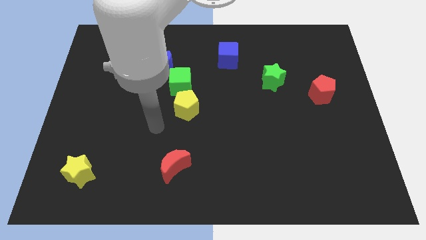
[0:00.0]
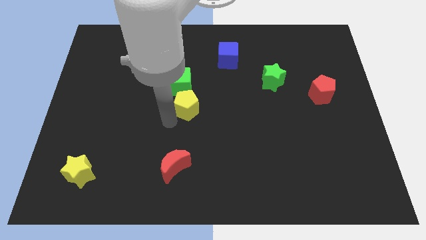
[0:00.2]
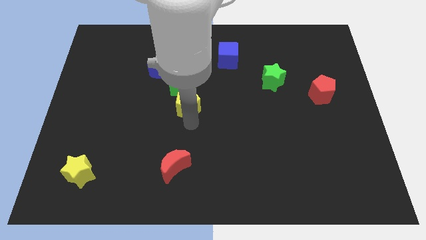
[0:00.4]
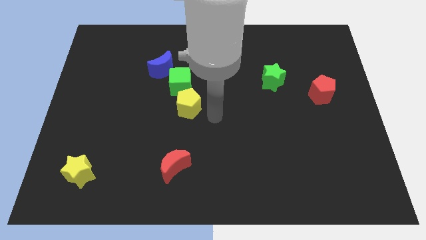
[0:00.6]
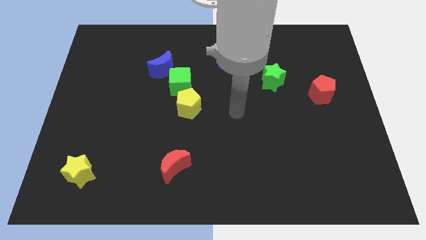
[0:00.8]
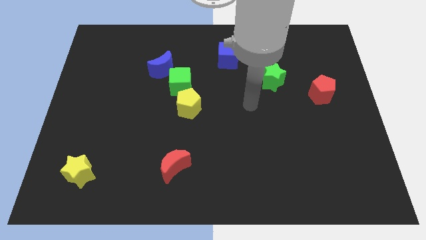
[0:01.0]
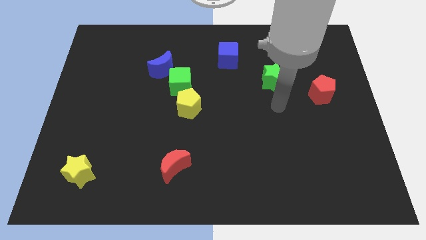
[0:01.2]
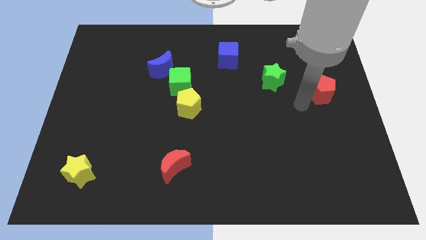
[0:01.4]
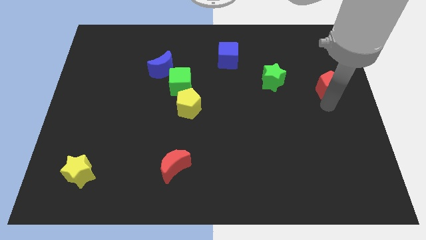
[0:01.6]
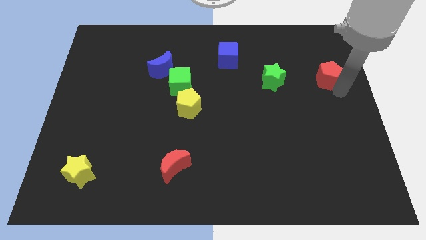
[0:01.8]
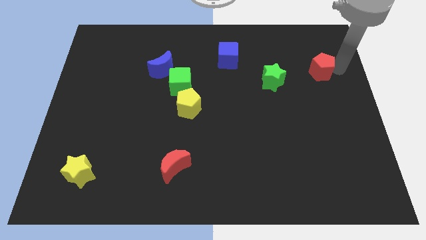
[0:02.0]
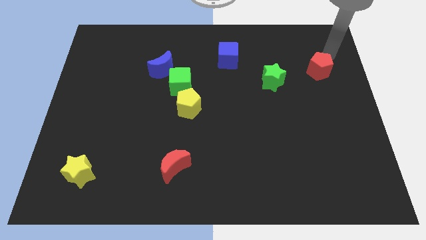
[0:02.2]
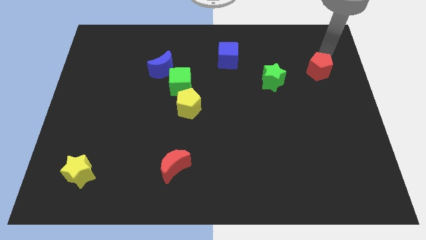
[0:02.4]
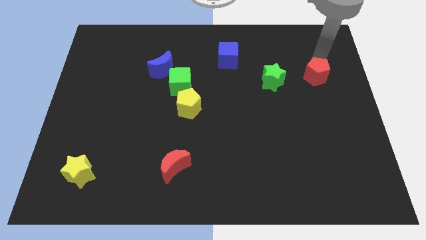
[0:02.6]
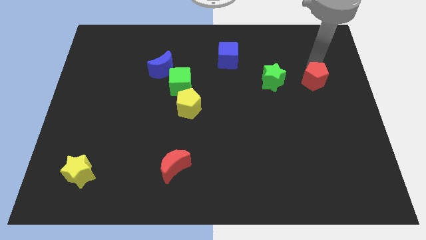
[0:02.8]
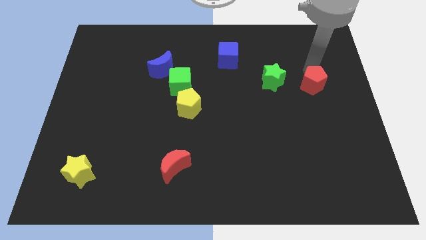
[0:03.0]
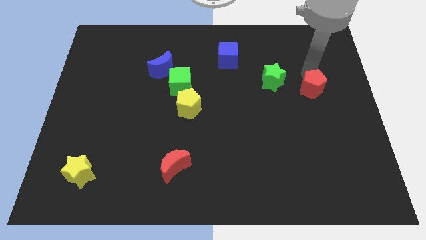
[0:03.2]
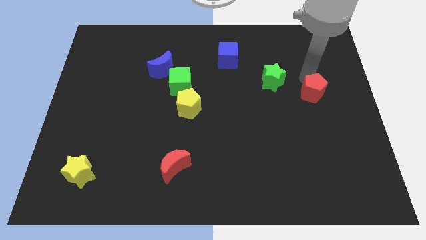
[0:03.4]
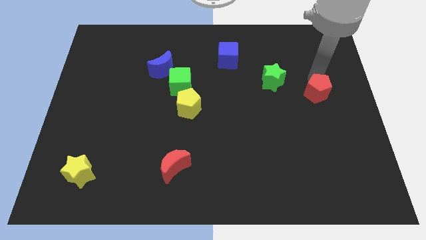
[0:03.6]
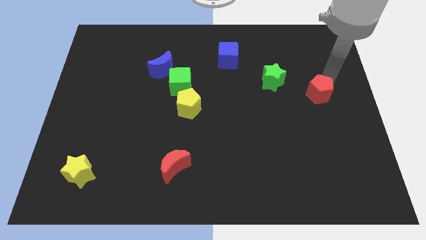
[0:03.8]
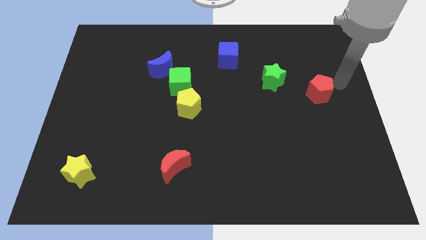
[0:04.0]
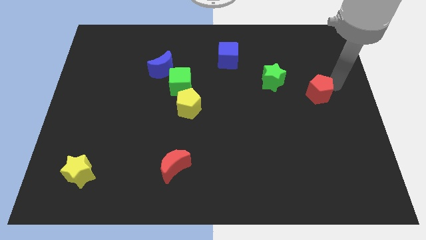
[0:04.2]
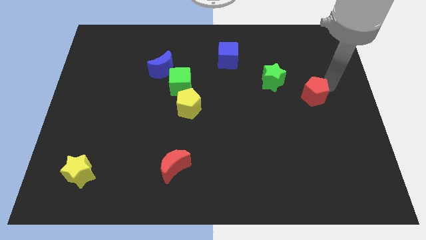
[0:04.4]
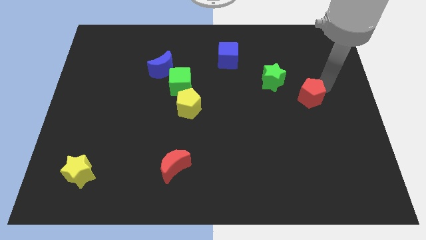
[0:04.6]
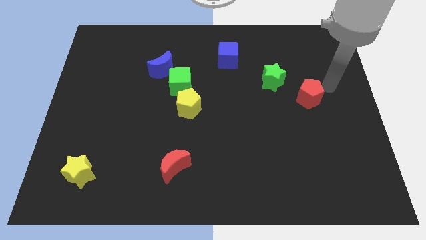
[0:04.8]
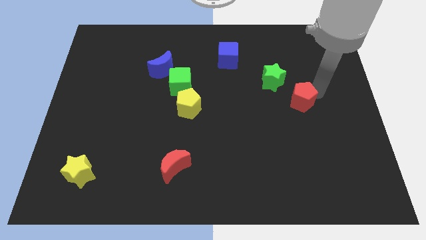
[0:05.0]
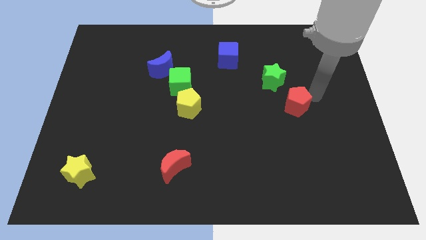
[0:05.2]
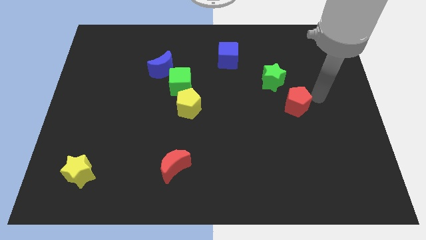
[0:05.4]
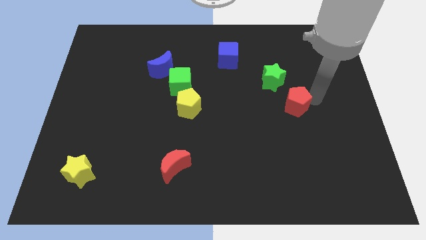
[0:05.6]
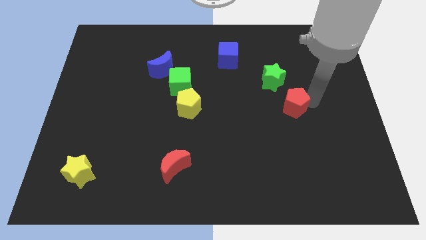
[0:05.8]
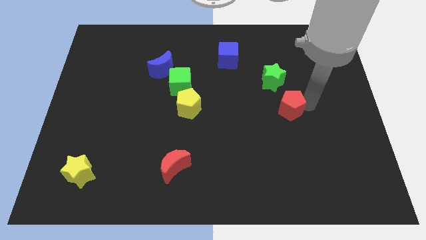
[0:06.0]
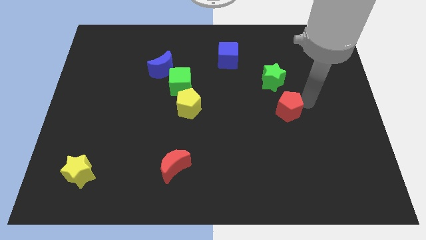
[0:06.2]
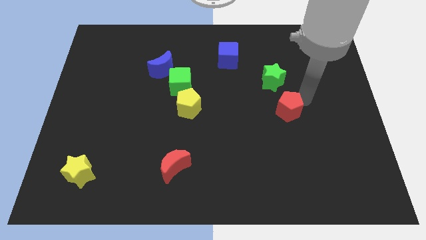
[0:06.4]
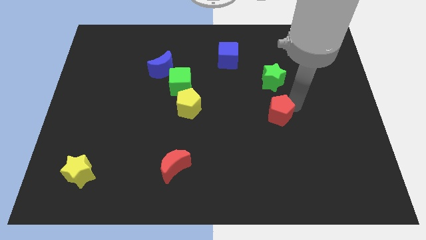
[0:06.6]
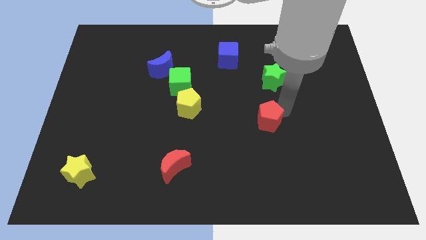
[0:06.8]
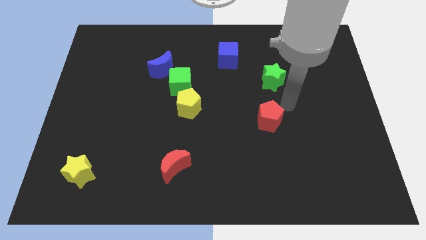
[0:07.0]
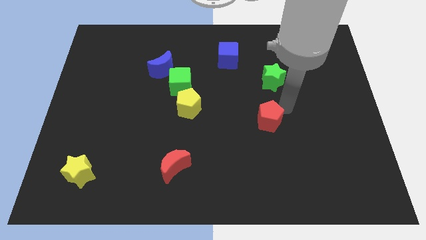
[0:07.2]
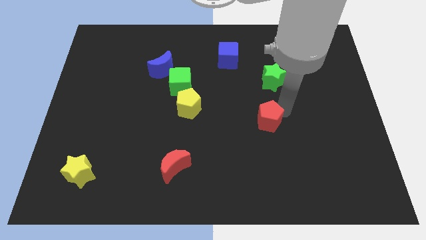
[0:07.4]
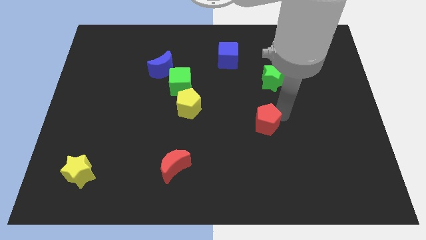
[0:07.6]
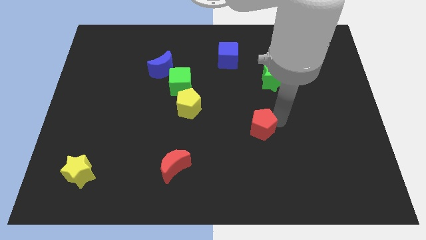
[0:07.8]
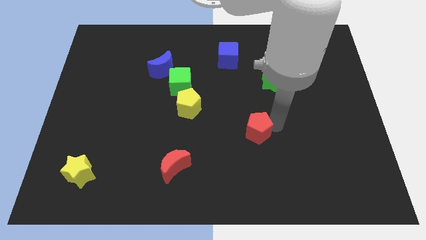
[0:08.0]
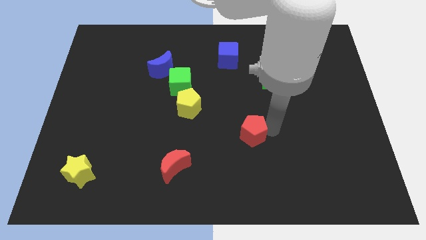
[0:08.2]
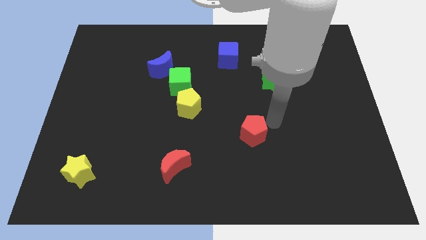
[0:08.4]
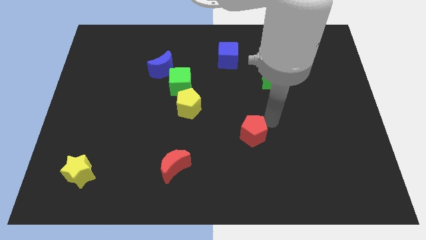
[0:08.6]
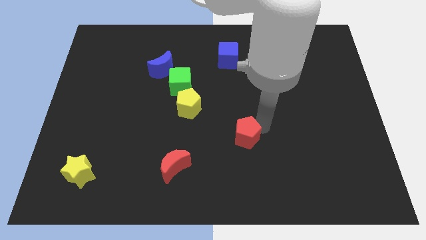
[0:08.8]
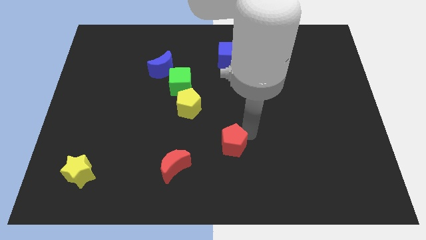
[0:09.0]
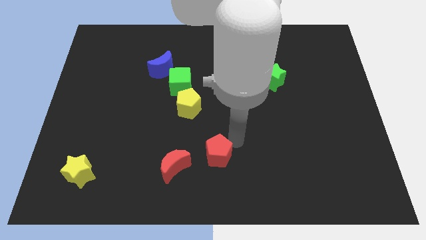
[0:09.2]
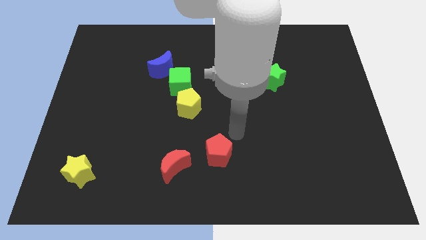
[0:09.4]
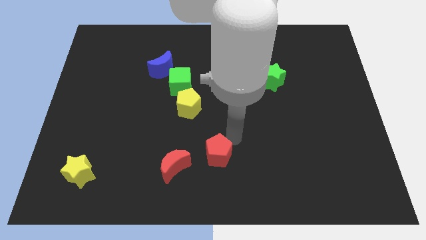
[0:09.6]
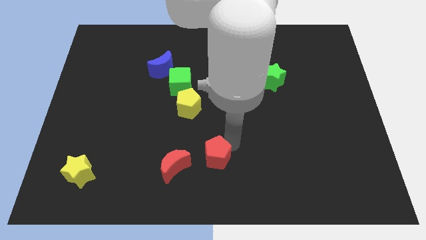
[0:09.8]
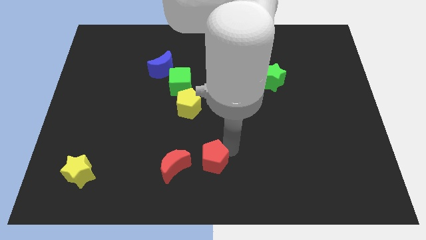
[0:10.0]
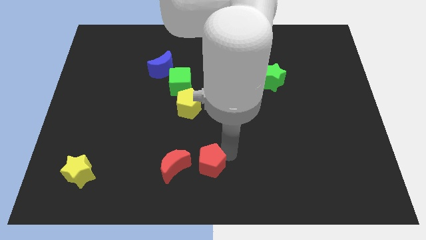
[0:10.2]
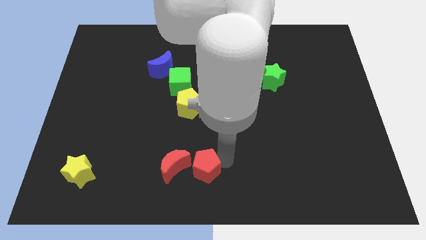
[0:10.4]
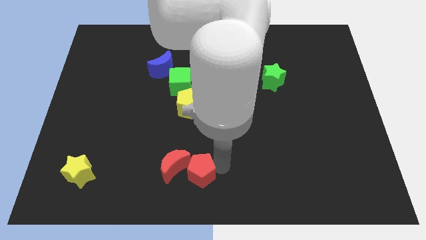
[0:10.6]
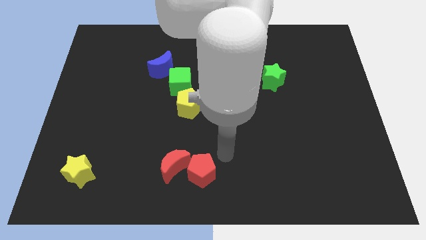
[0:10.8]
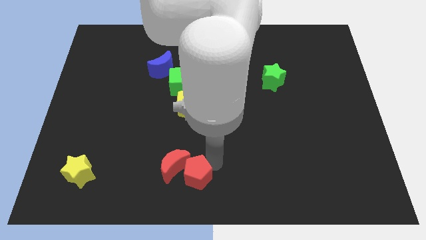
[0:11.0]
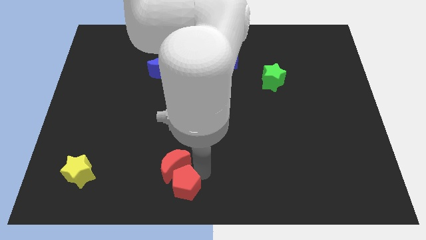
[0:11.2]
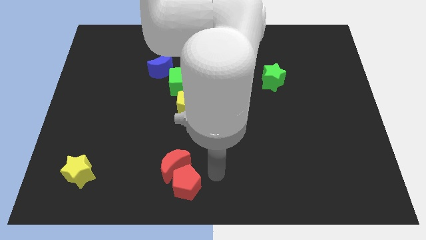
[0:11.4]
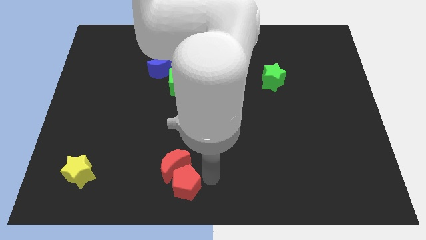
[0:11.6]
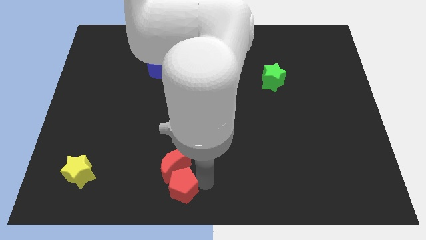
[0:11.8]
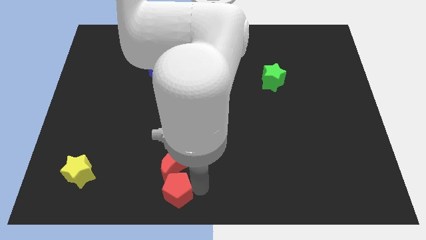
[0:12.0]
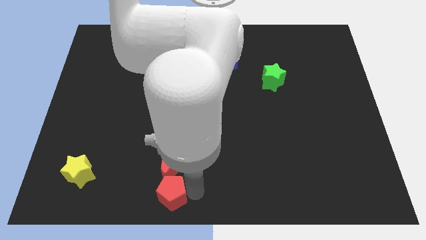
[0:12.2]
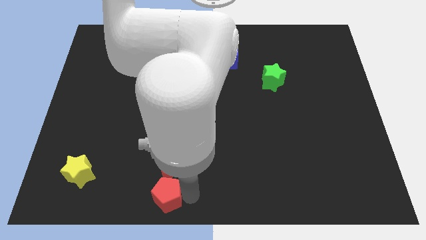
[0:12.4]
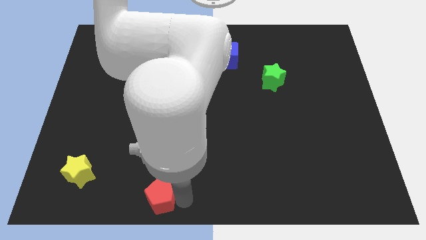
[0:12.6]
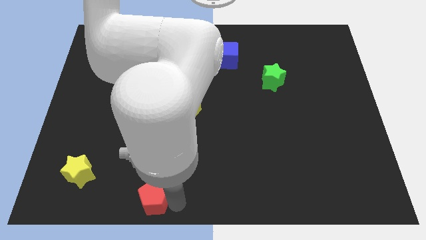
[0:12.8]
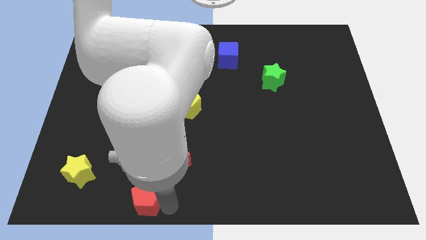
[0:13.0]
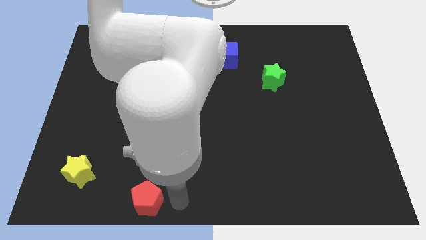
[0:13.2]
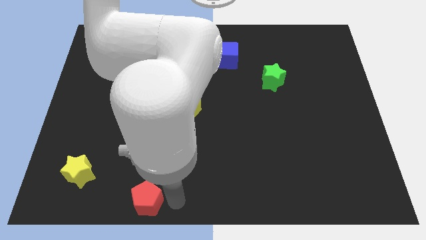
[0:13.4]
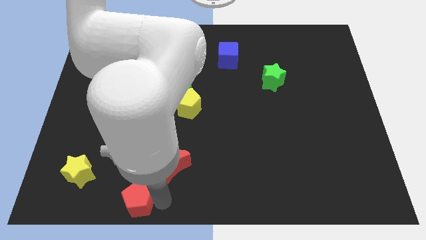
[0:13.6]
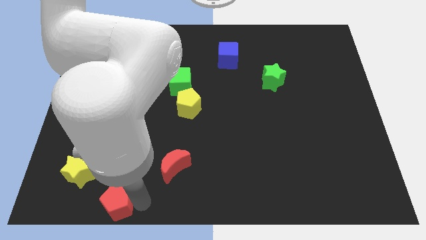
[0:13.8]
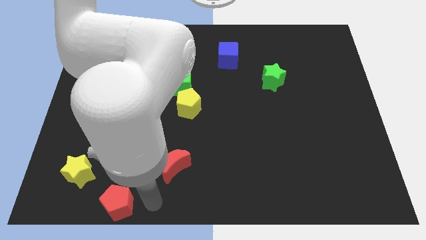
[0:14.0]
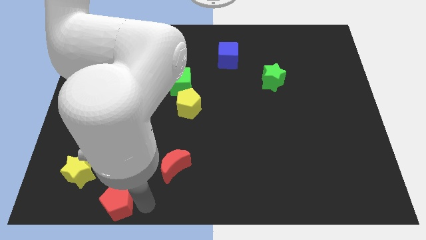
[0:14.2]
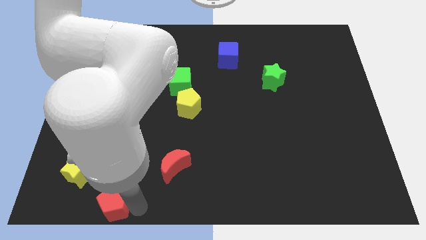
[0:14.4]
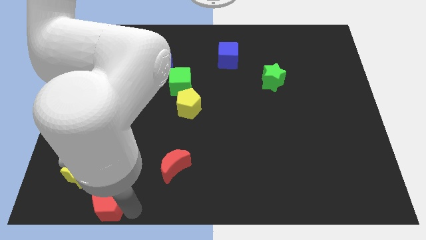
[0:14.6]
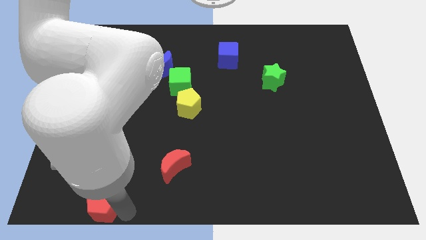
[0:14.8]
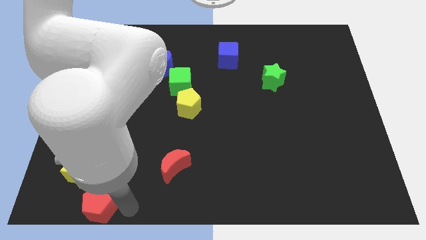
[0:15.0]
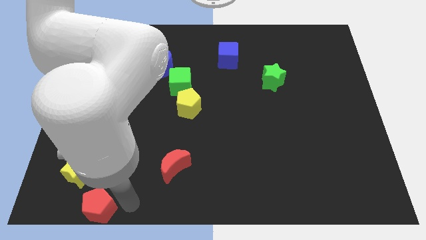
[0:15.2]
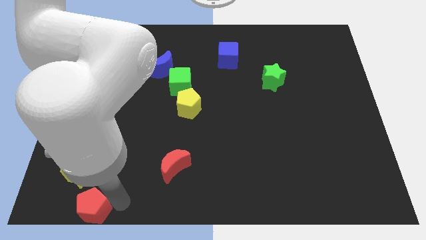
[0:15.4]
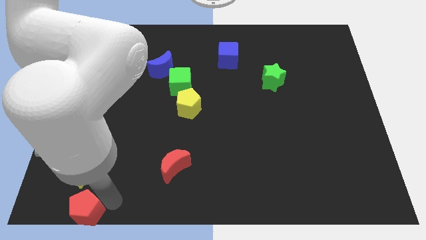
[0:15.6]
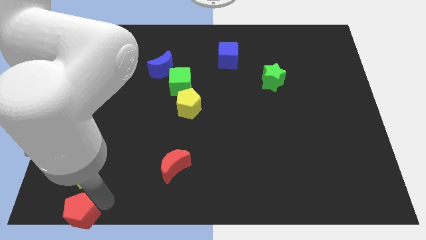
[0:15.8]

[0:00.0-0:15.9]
move the red pentagon to the bottom left of the board
